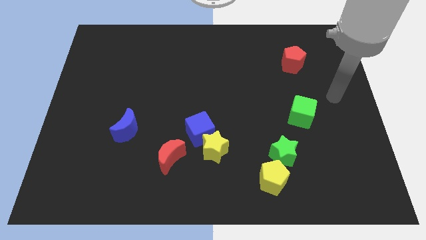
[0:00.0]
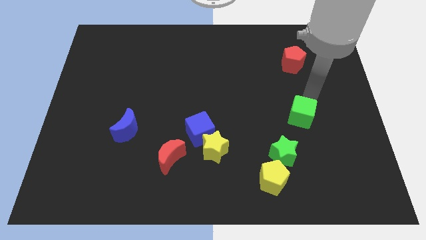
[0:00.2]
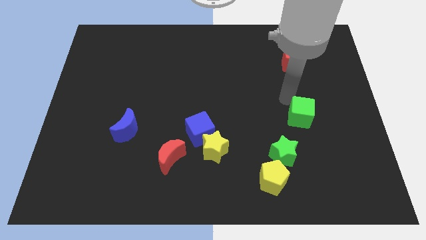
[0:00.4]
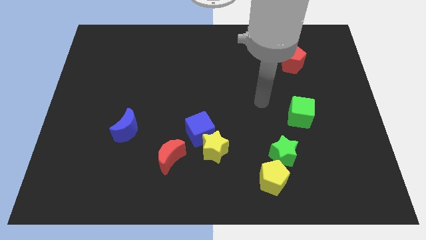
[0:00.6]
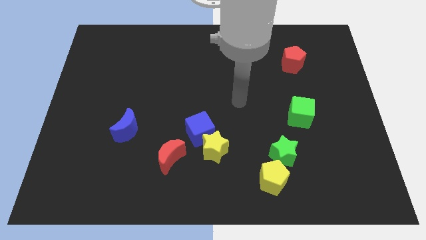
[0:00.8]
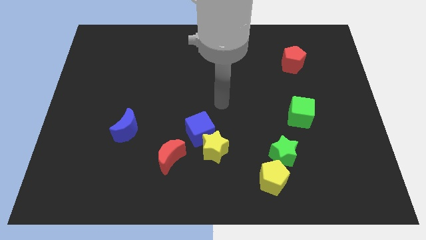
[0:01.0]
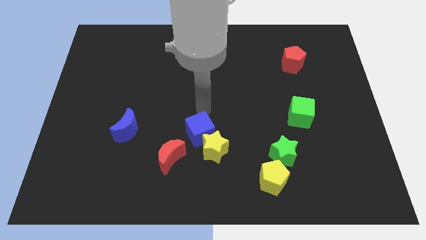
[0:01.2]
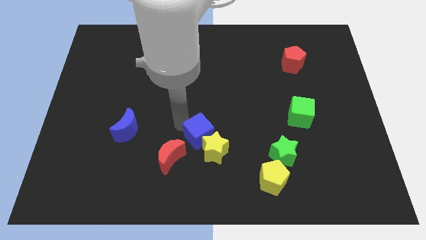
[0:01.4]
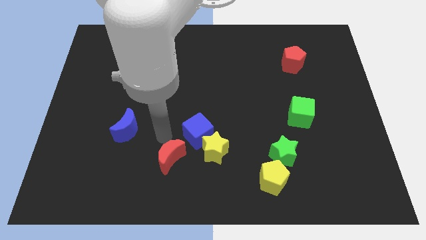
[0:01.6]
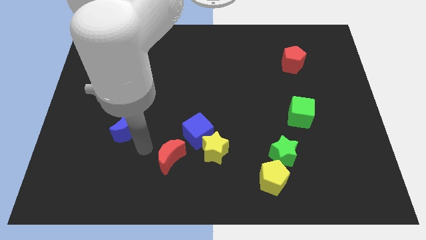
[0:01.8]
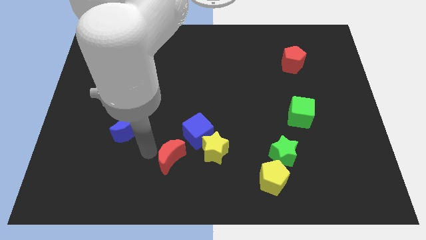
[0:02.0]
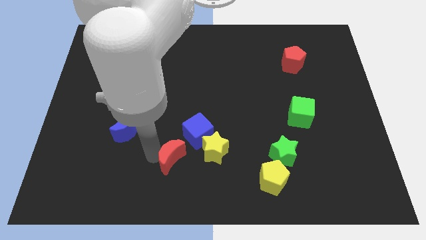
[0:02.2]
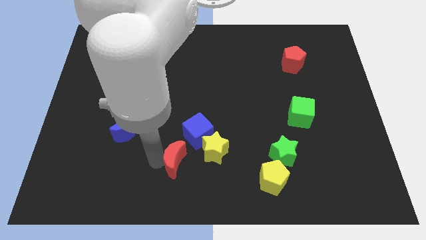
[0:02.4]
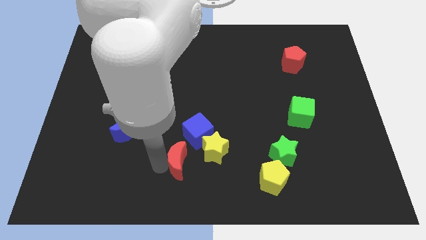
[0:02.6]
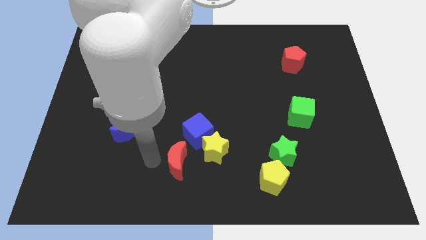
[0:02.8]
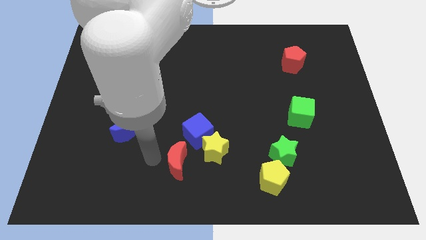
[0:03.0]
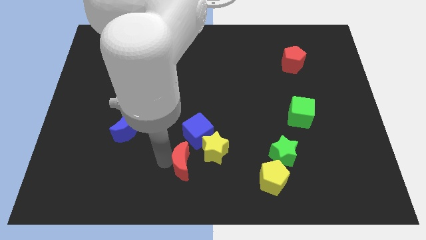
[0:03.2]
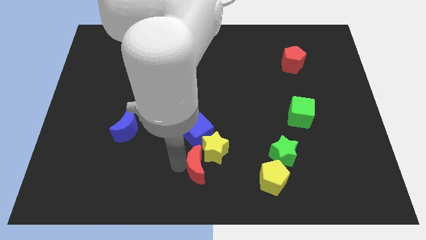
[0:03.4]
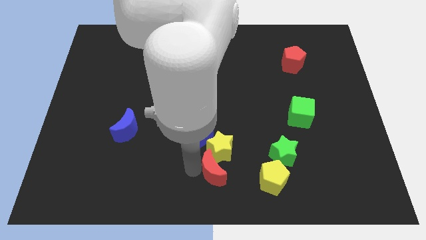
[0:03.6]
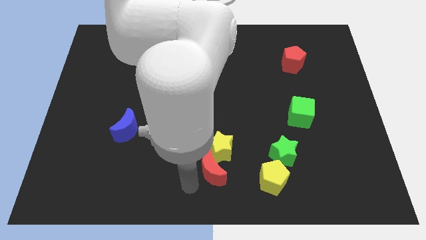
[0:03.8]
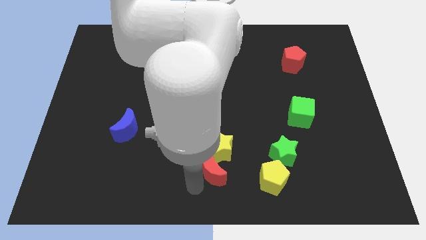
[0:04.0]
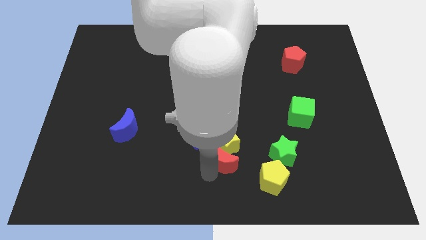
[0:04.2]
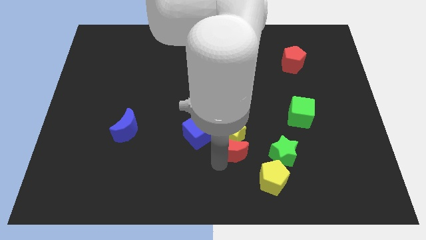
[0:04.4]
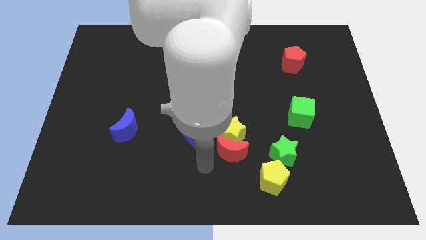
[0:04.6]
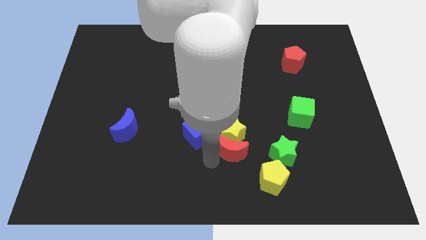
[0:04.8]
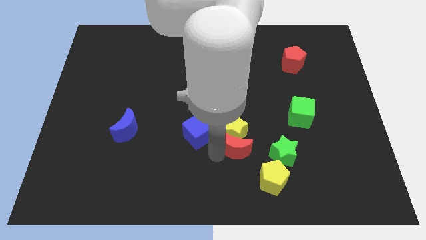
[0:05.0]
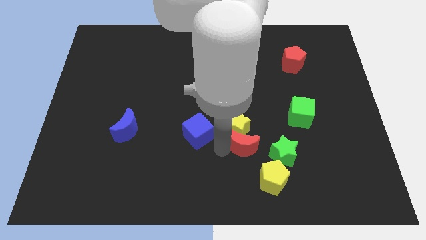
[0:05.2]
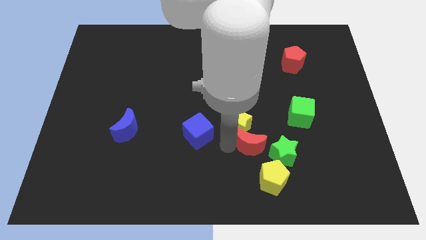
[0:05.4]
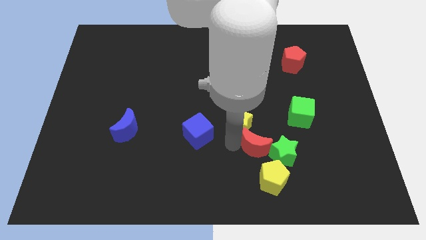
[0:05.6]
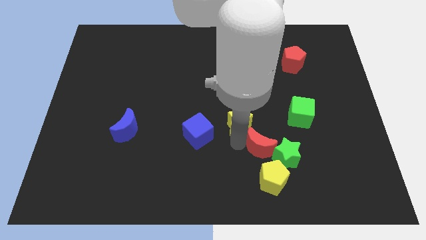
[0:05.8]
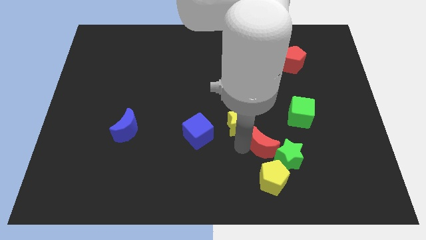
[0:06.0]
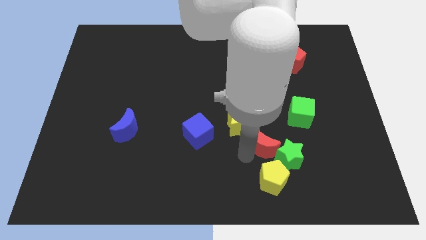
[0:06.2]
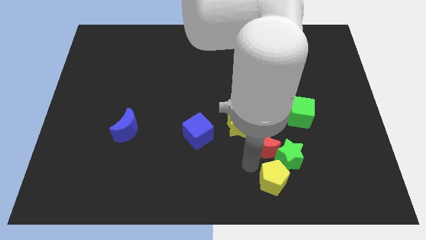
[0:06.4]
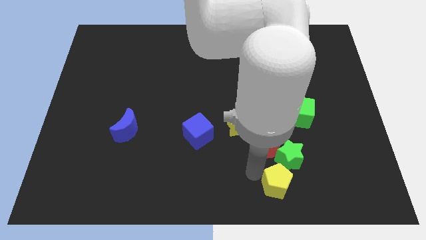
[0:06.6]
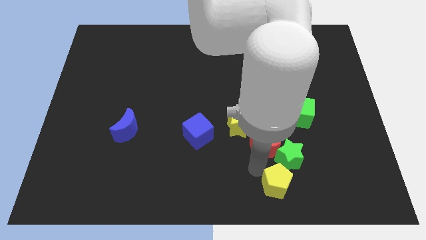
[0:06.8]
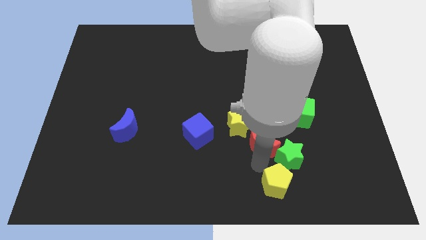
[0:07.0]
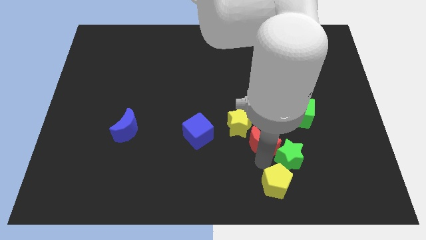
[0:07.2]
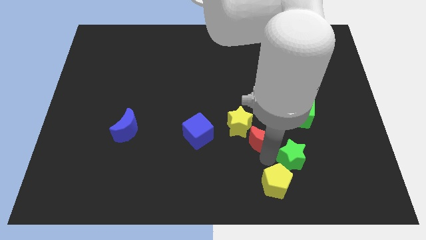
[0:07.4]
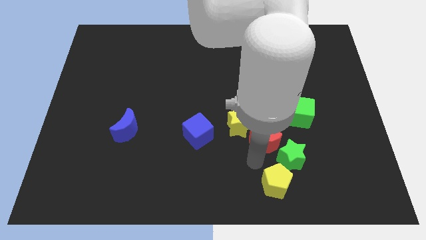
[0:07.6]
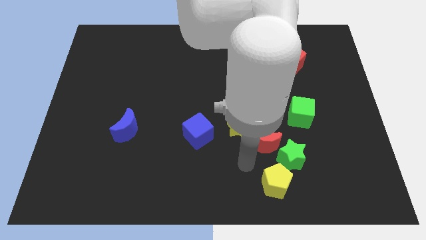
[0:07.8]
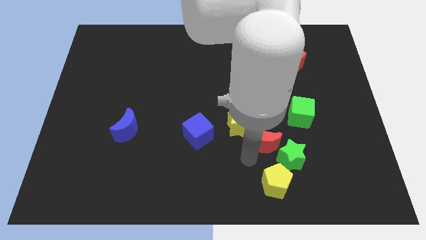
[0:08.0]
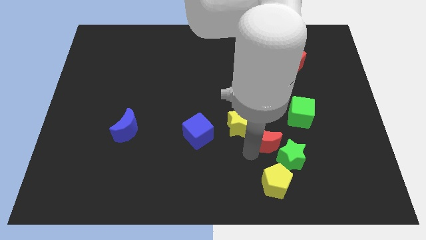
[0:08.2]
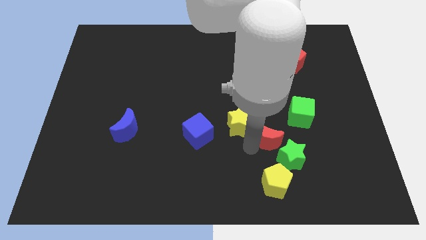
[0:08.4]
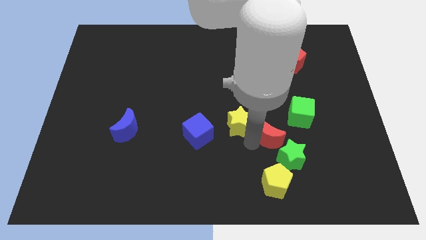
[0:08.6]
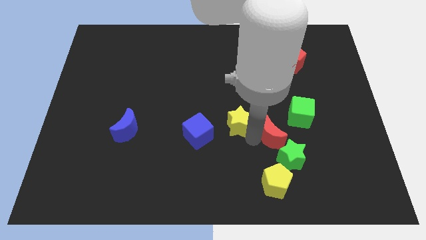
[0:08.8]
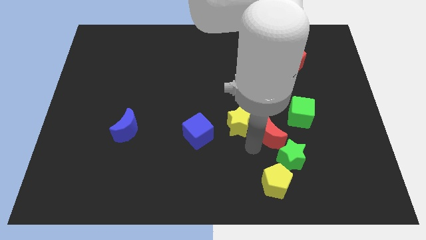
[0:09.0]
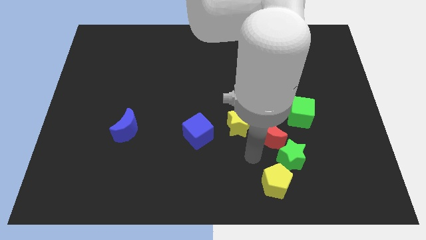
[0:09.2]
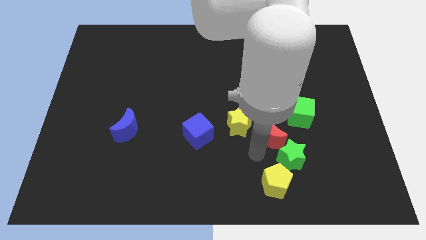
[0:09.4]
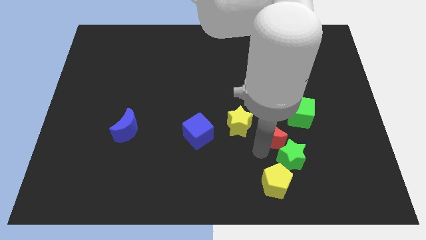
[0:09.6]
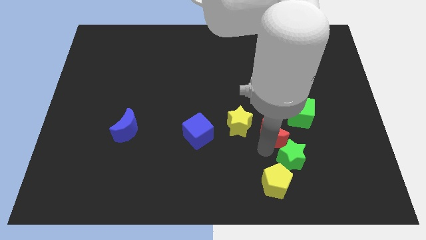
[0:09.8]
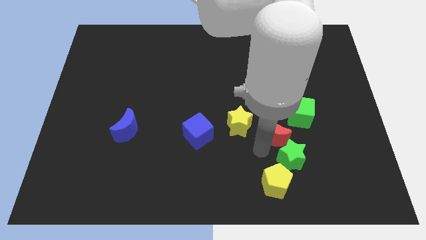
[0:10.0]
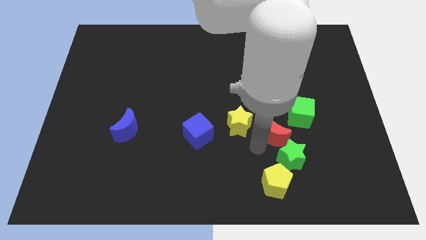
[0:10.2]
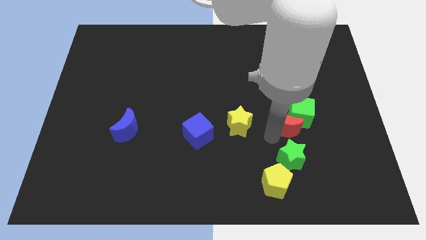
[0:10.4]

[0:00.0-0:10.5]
slide the red moon to the green cube
